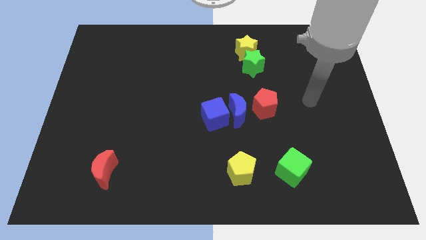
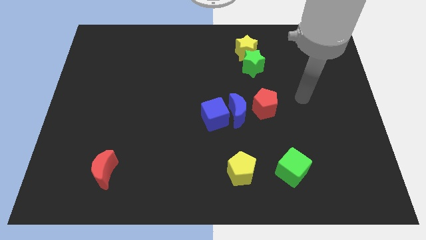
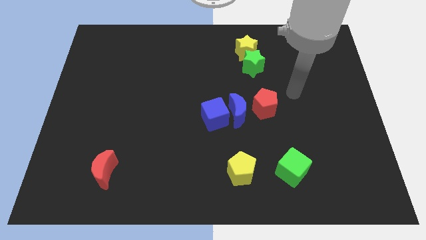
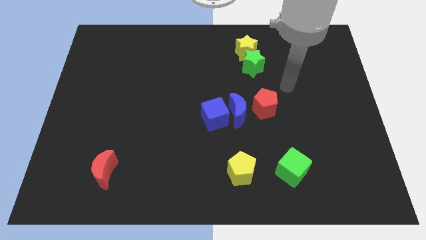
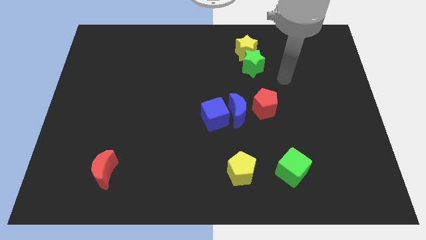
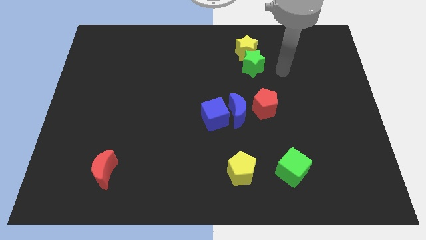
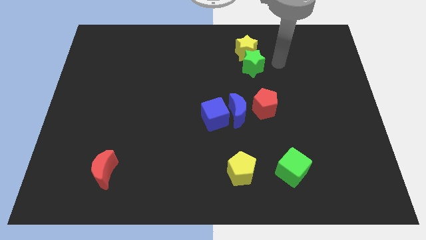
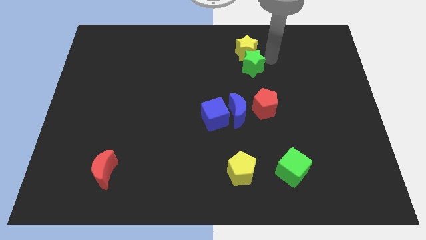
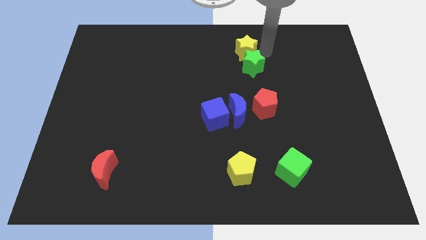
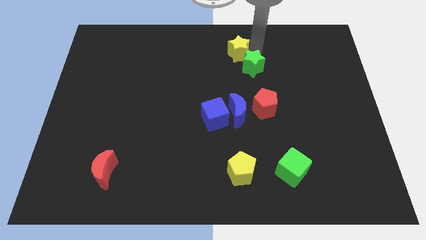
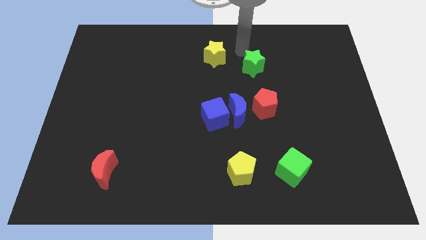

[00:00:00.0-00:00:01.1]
move the green star away from the yellow star

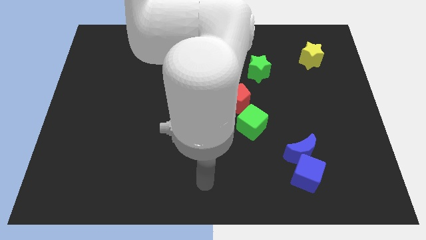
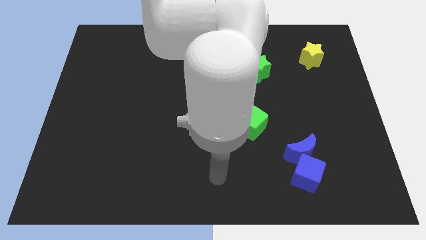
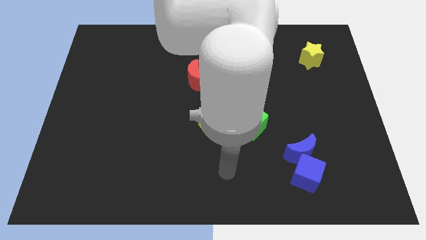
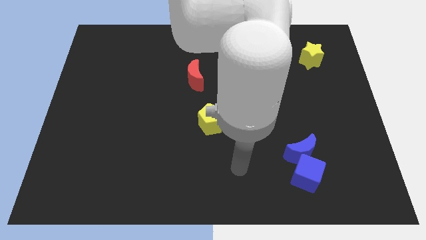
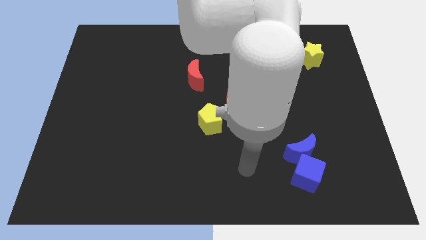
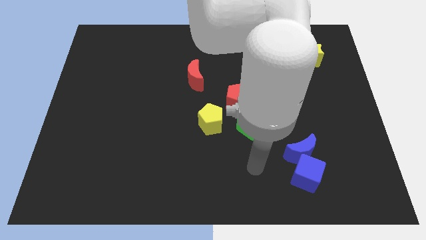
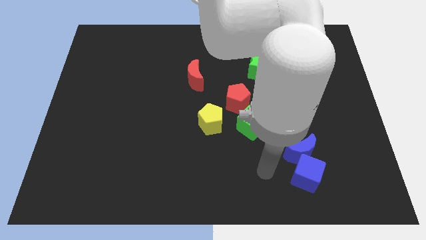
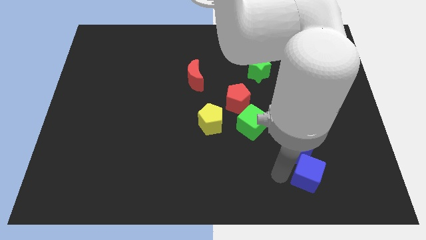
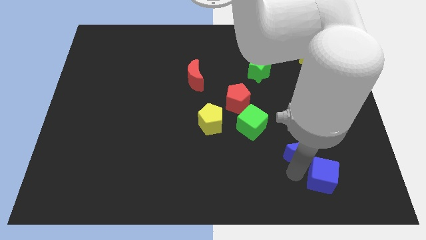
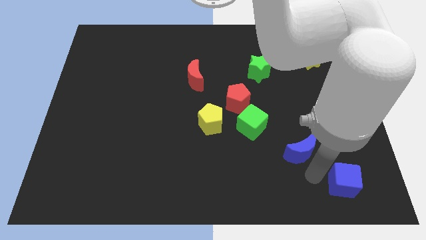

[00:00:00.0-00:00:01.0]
pull the blue moon apart from the blue cube

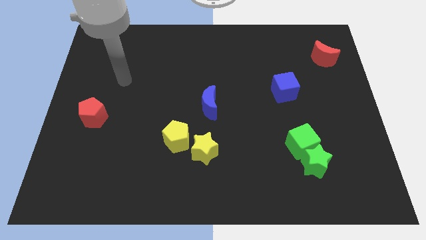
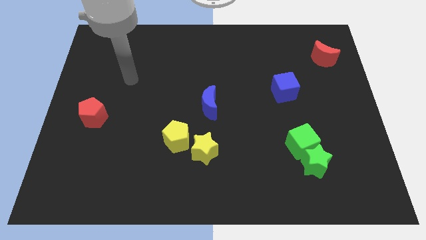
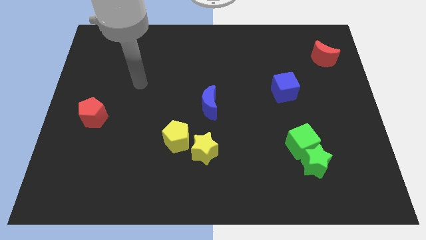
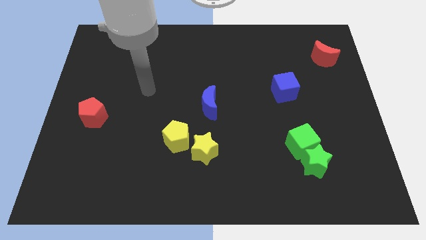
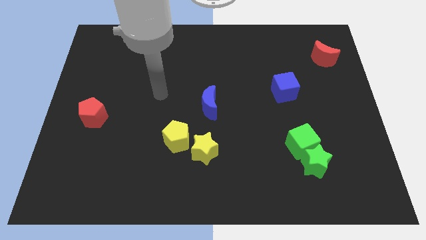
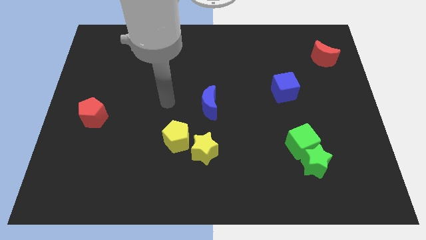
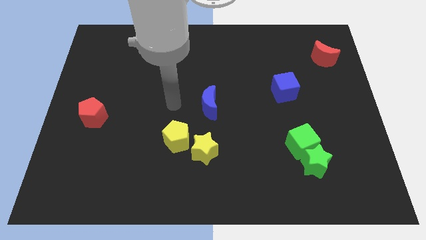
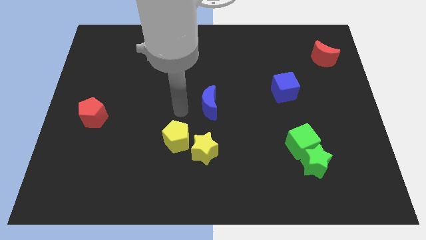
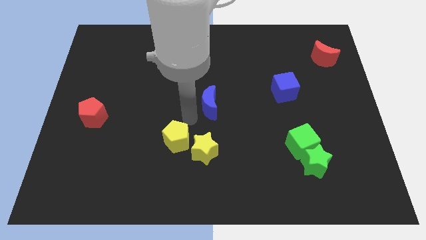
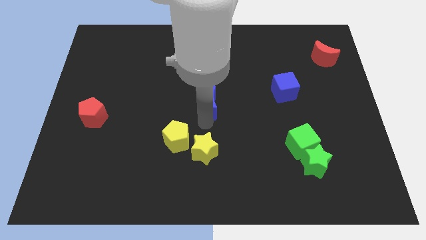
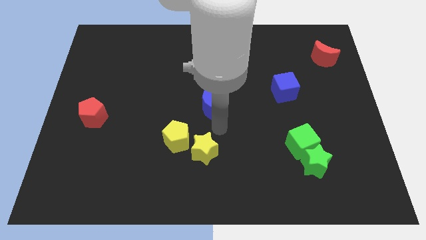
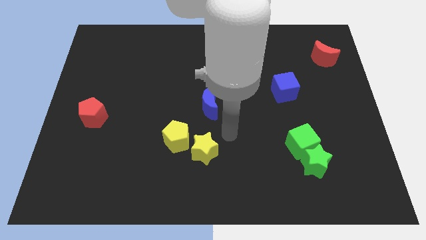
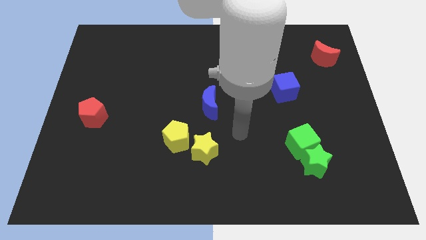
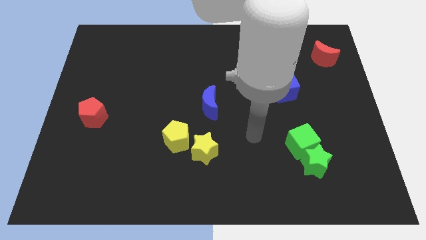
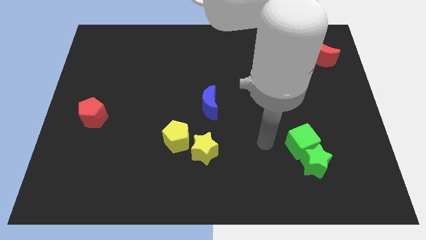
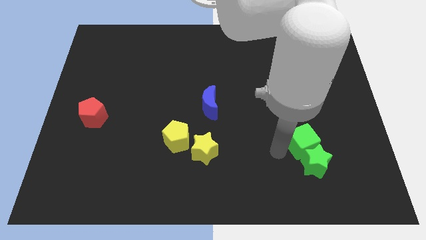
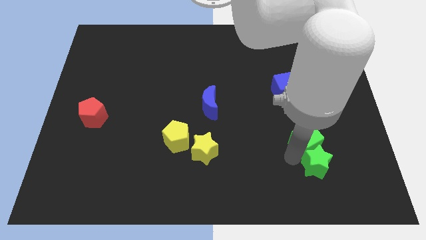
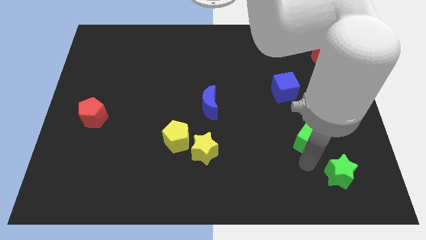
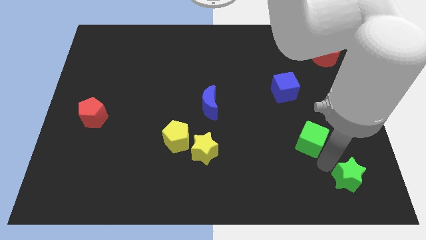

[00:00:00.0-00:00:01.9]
pull the green cube apart from the green star

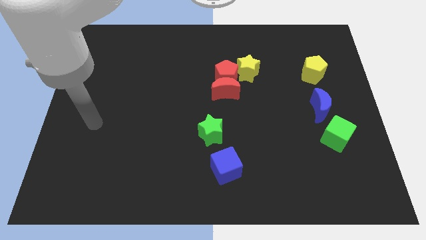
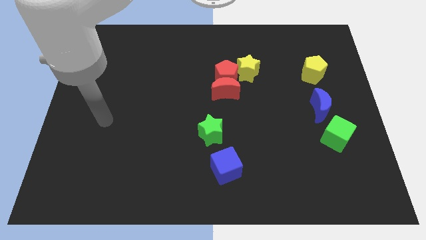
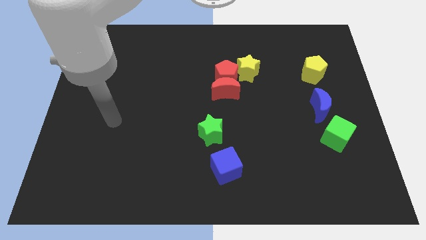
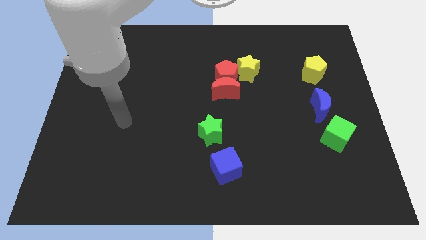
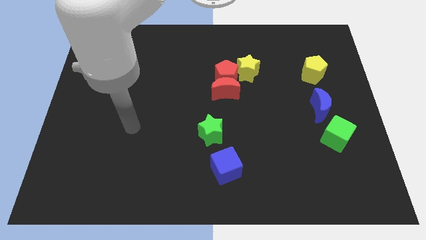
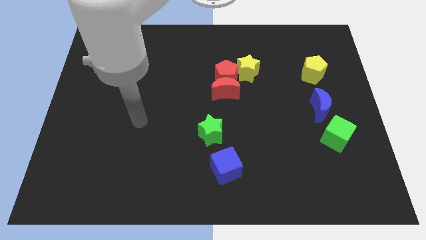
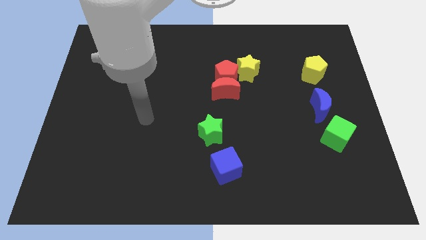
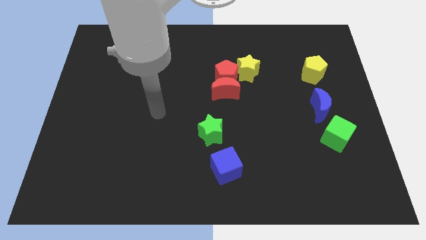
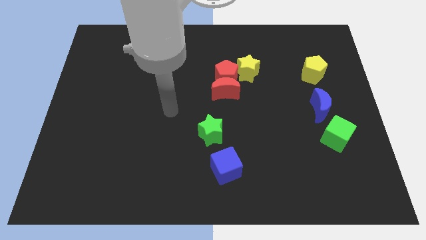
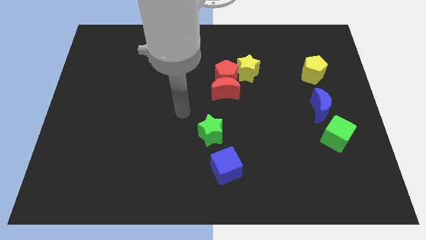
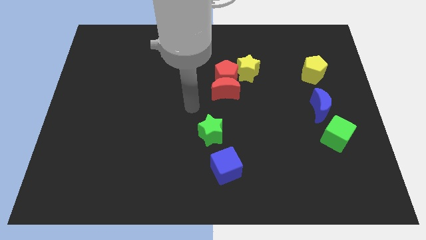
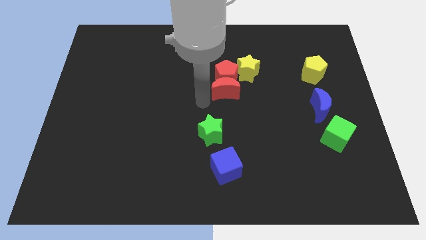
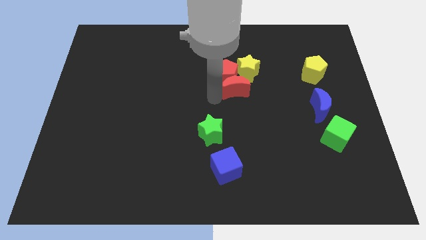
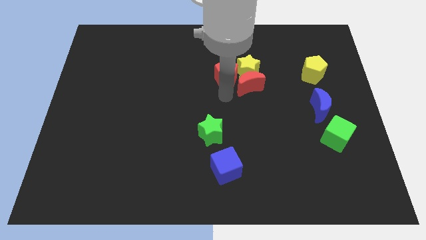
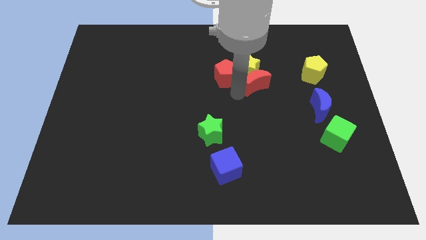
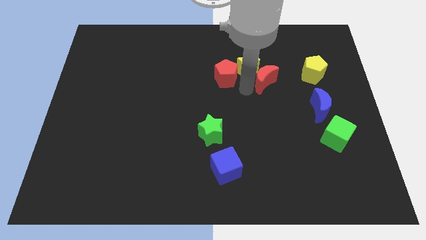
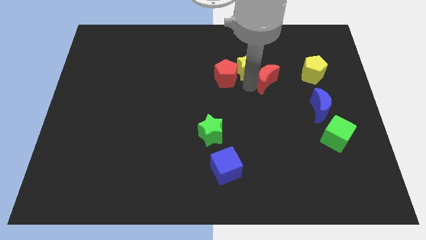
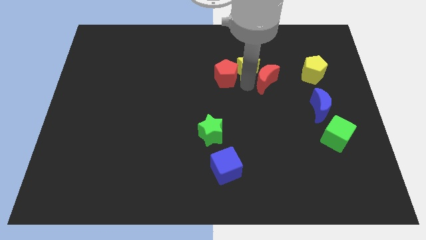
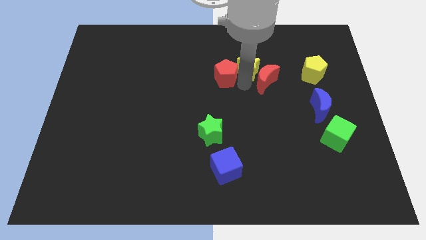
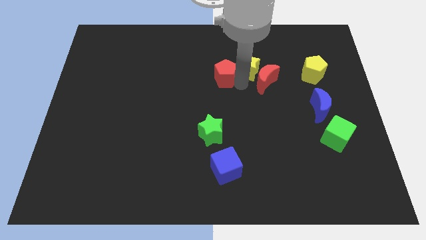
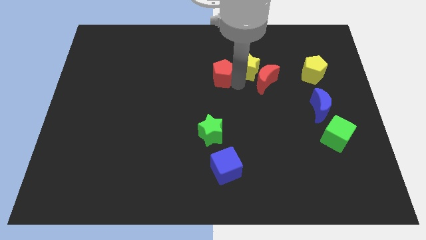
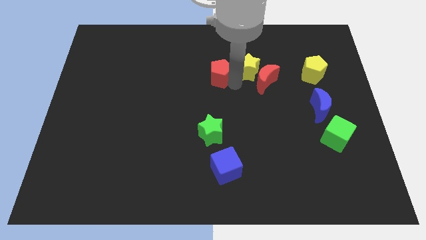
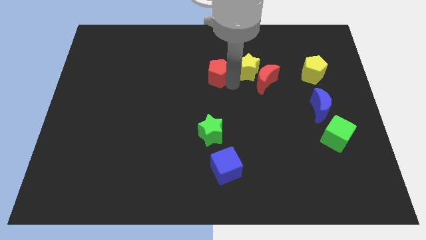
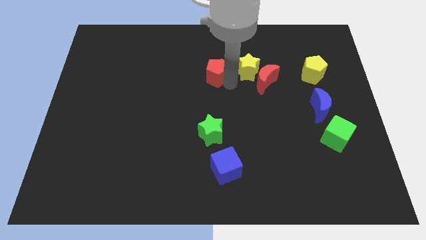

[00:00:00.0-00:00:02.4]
pull the red pentagon apart from the red moon and yellow star

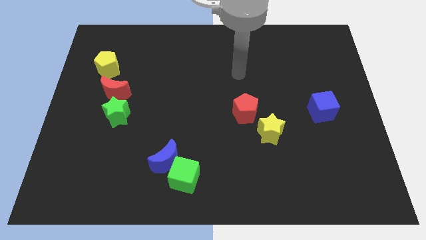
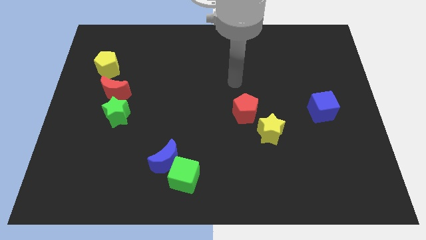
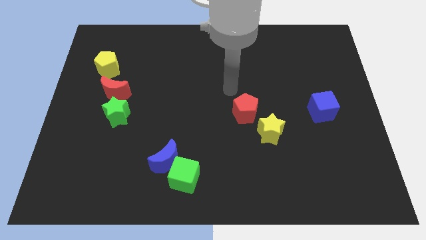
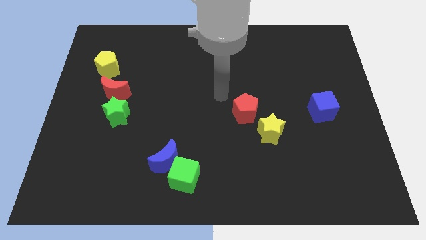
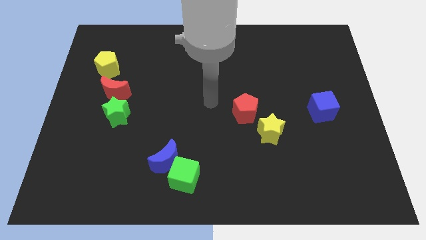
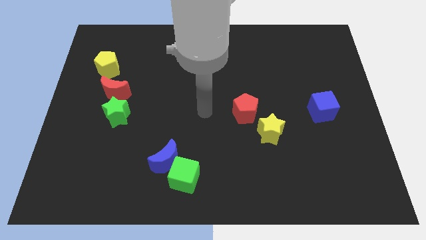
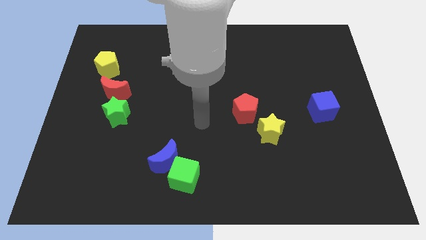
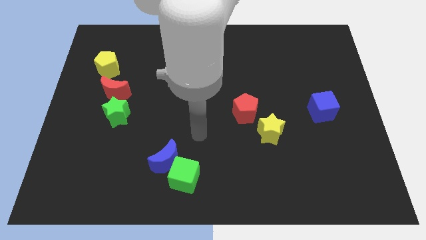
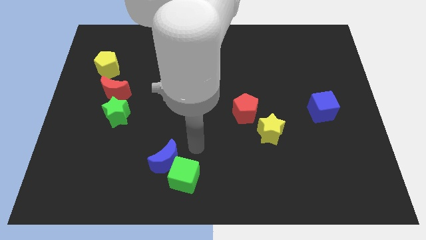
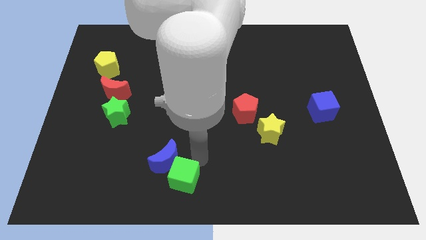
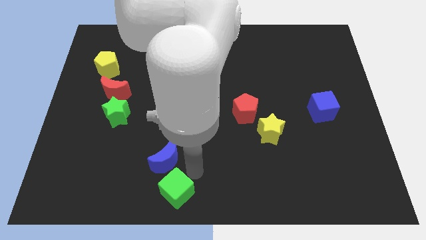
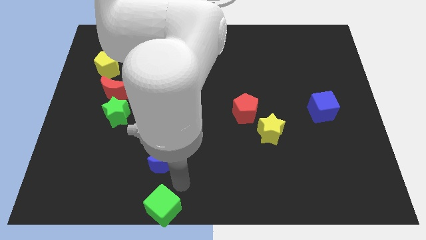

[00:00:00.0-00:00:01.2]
separate the blue moon from the green cube

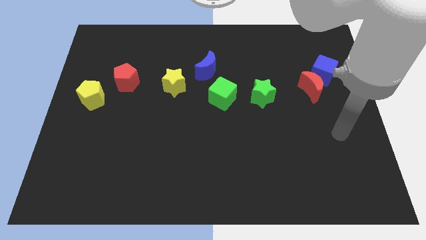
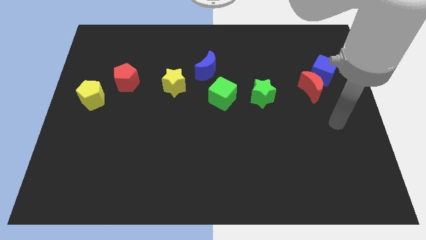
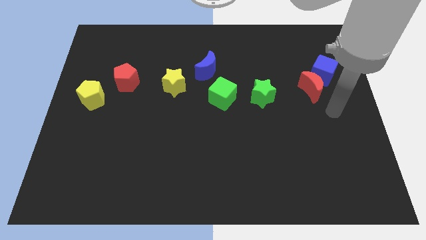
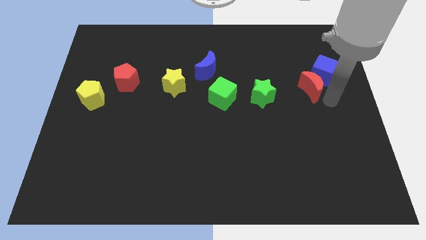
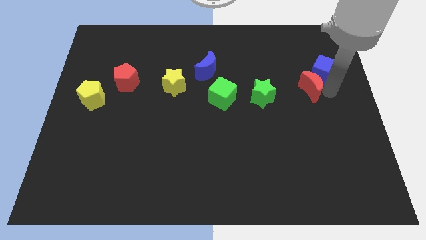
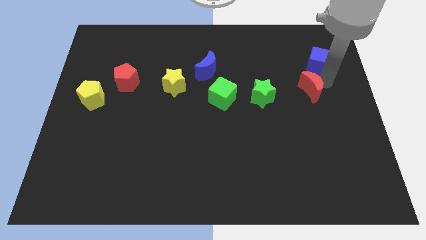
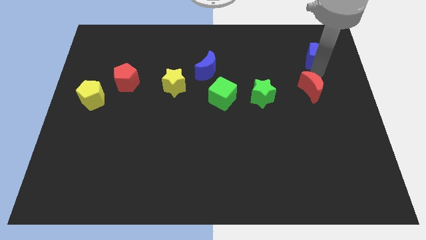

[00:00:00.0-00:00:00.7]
separate the red moon from the blue cube

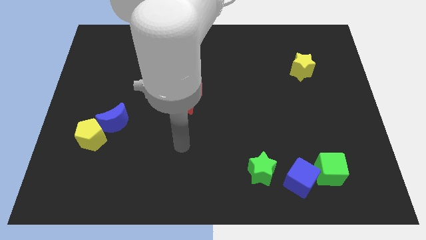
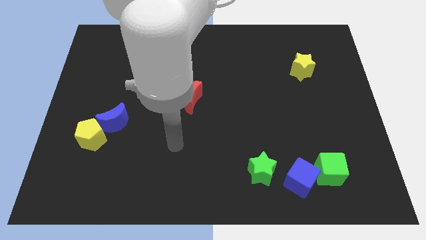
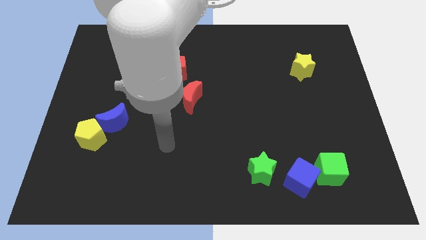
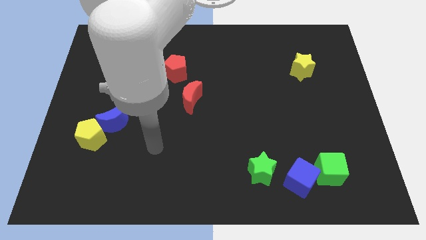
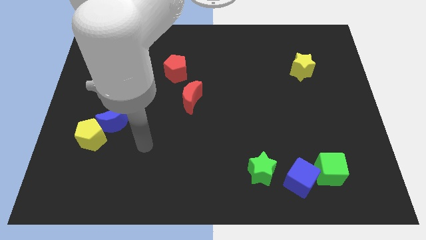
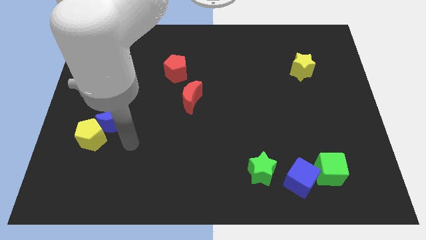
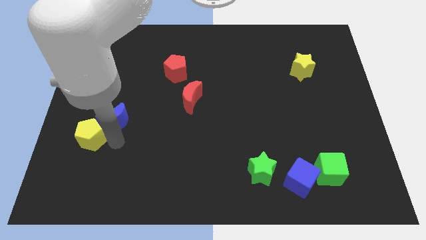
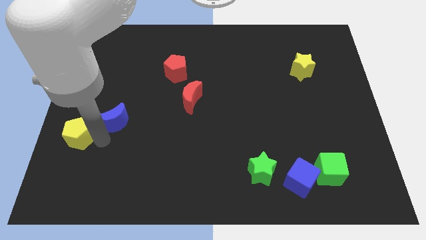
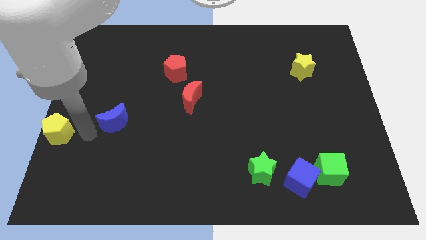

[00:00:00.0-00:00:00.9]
separate the blue moon from the yellow pentagon
